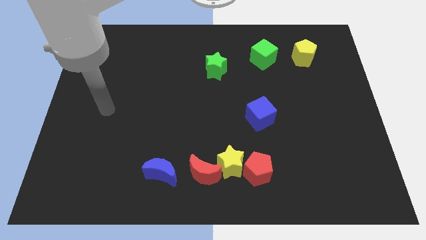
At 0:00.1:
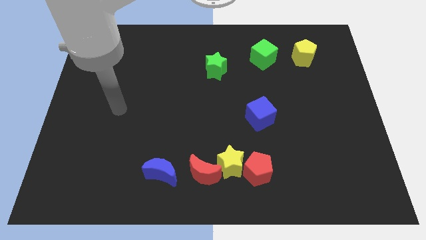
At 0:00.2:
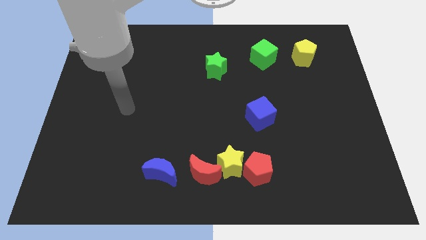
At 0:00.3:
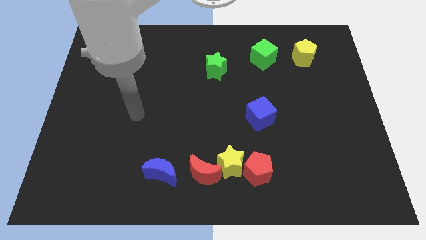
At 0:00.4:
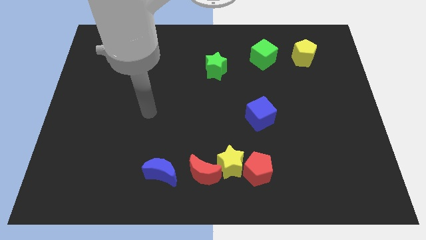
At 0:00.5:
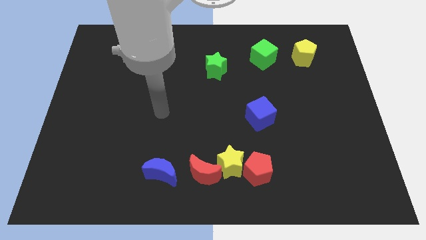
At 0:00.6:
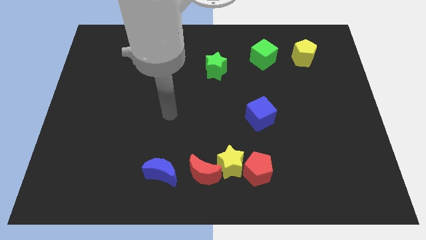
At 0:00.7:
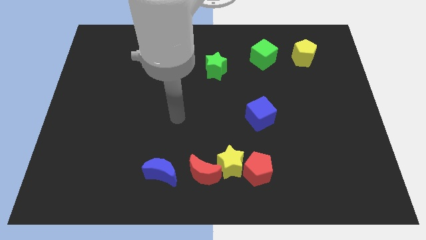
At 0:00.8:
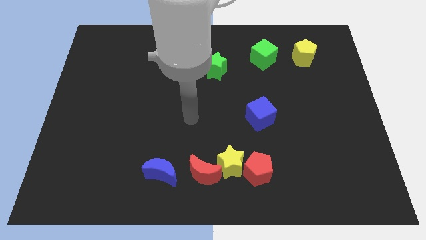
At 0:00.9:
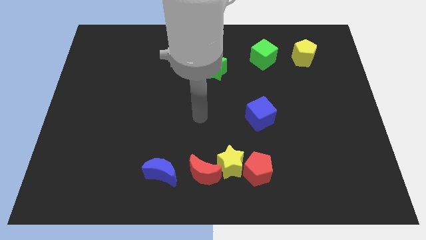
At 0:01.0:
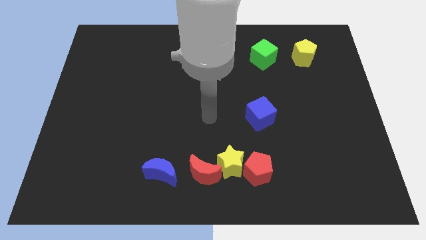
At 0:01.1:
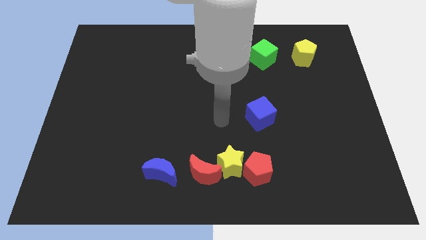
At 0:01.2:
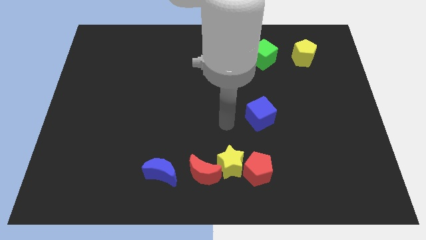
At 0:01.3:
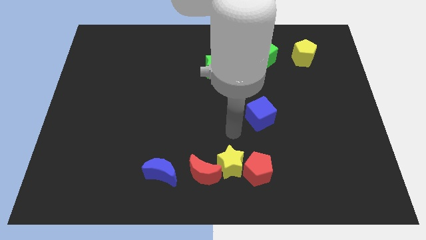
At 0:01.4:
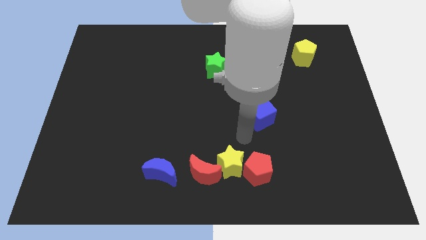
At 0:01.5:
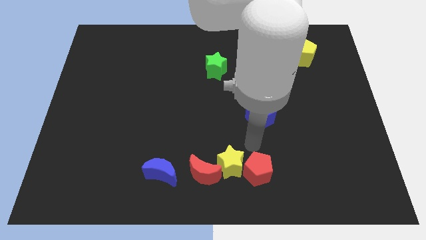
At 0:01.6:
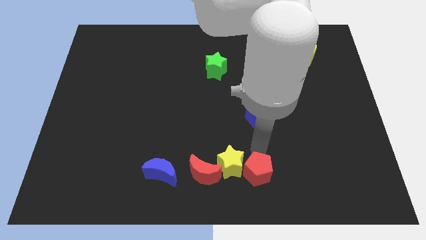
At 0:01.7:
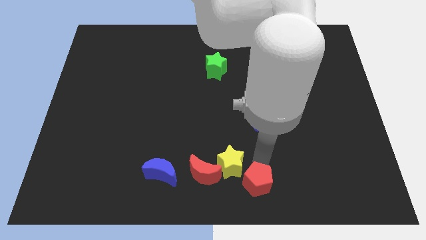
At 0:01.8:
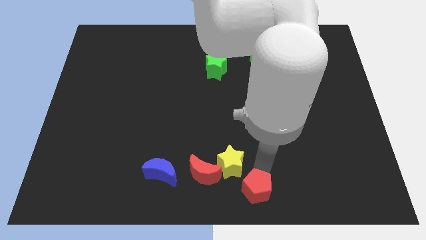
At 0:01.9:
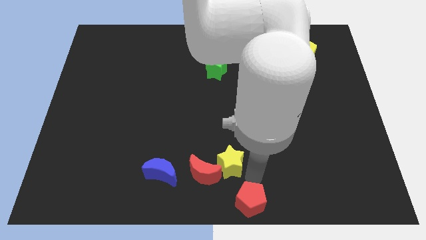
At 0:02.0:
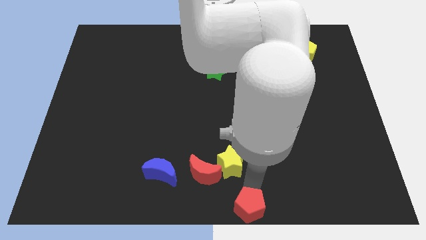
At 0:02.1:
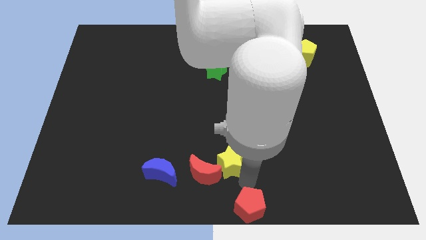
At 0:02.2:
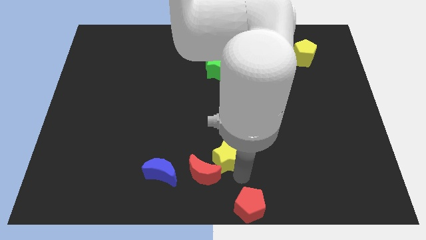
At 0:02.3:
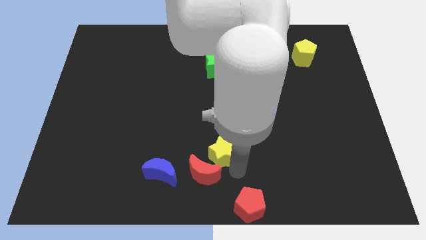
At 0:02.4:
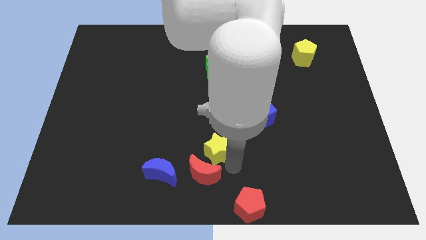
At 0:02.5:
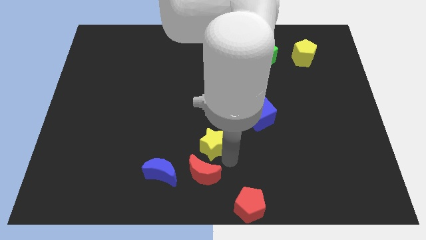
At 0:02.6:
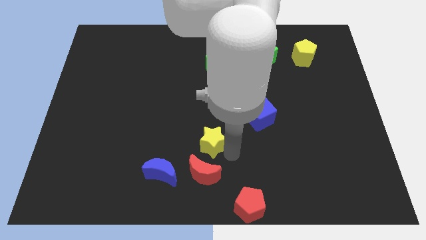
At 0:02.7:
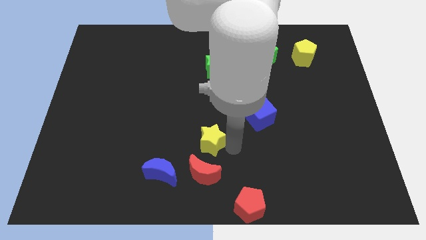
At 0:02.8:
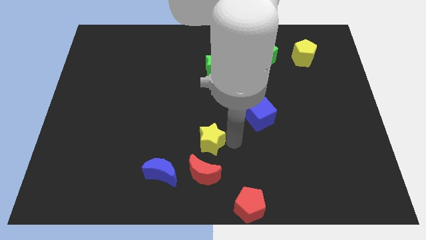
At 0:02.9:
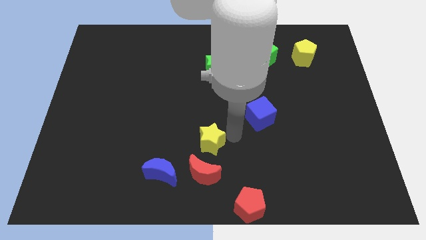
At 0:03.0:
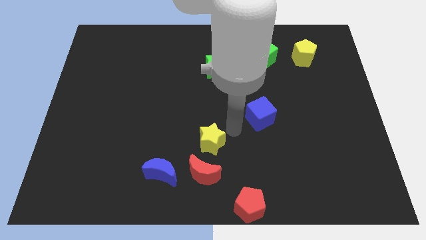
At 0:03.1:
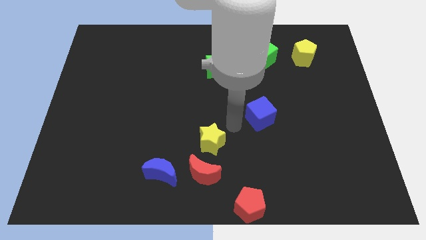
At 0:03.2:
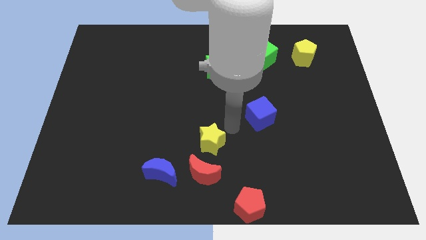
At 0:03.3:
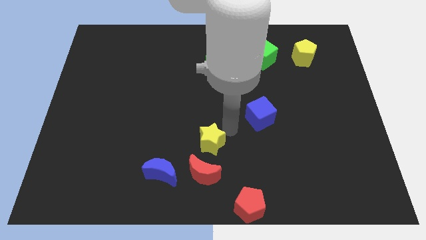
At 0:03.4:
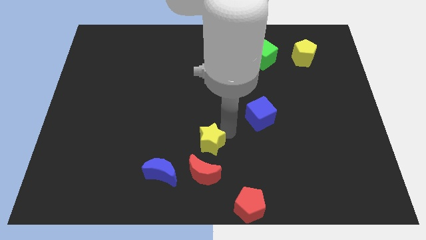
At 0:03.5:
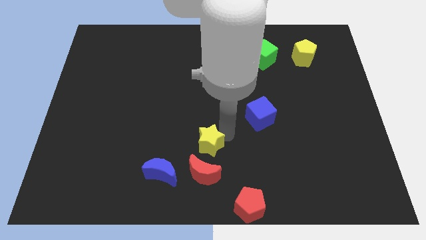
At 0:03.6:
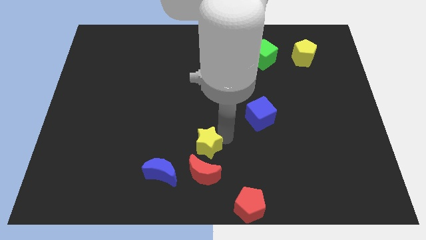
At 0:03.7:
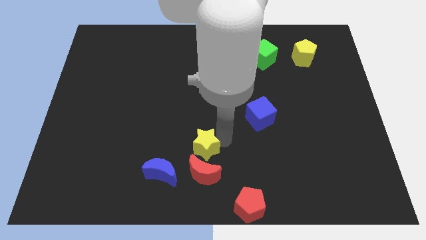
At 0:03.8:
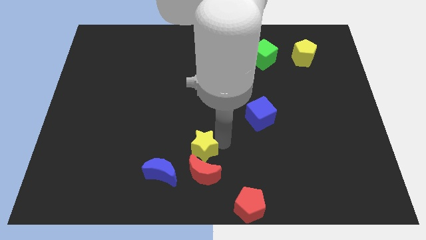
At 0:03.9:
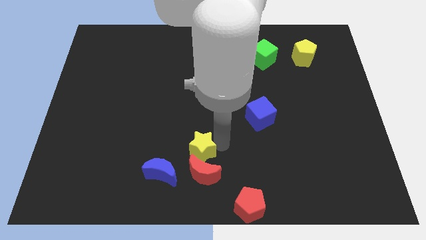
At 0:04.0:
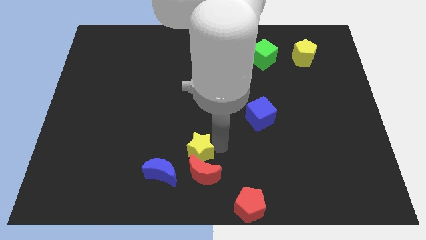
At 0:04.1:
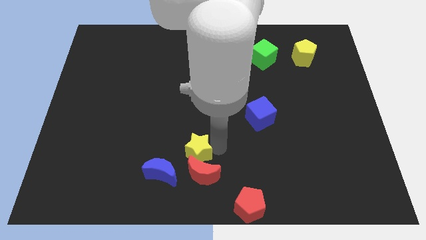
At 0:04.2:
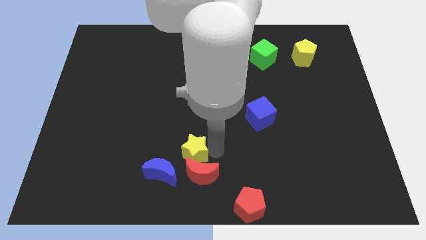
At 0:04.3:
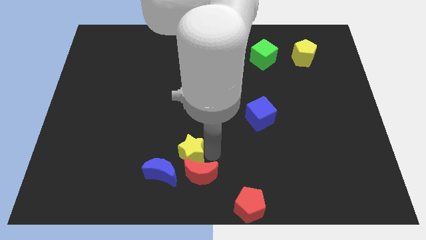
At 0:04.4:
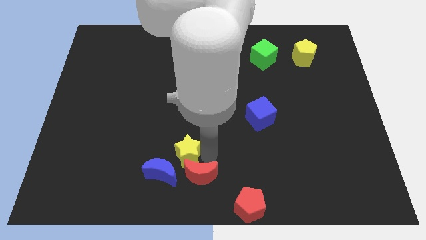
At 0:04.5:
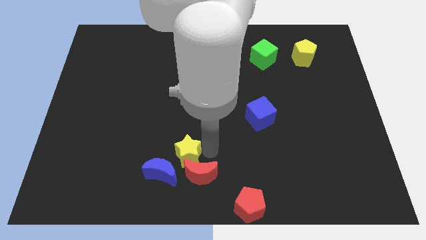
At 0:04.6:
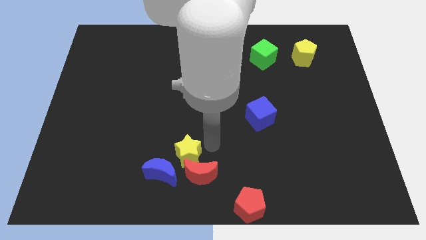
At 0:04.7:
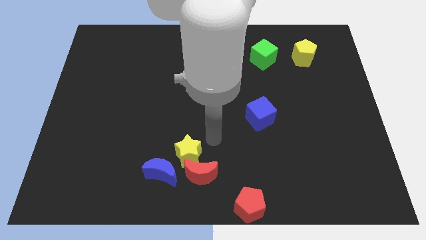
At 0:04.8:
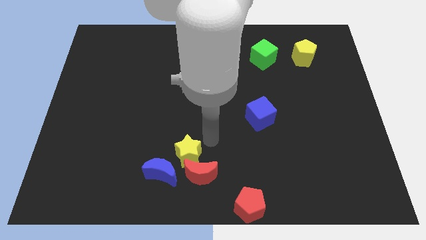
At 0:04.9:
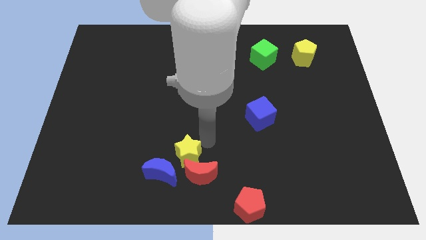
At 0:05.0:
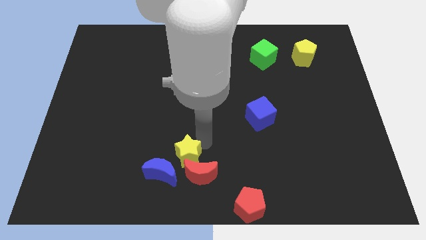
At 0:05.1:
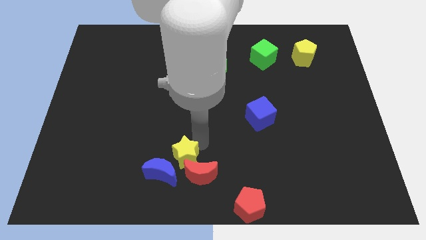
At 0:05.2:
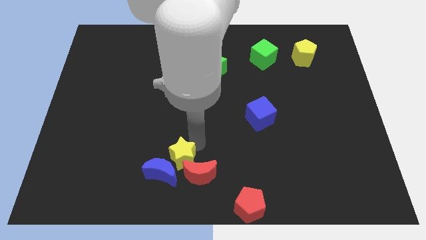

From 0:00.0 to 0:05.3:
put the yellow star to the blue moon

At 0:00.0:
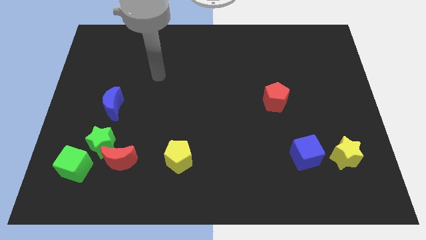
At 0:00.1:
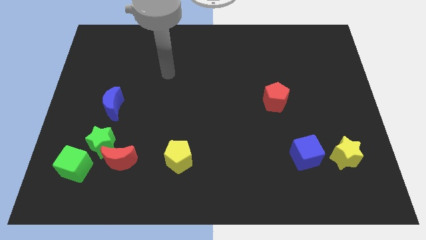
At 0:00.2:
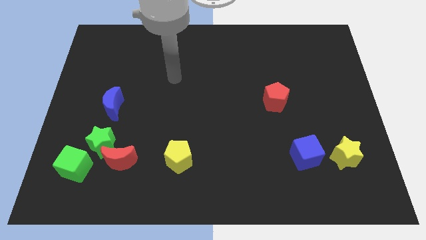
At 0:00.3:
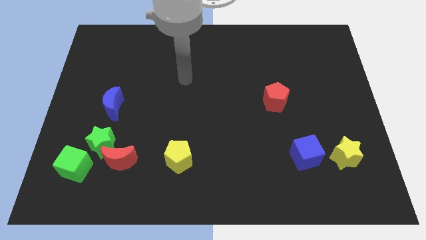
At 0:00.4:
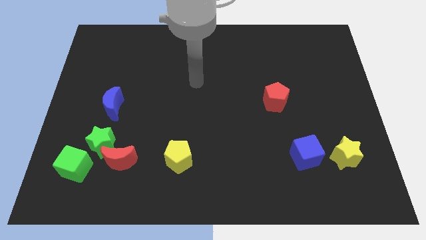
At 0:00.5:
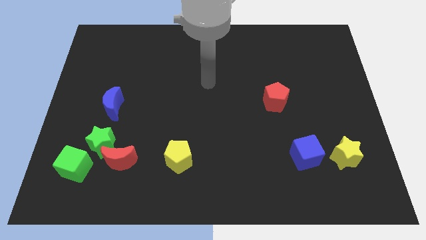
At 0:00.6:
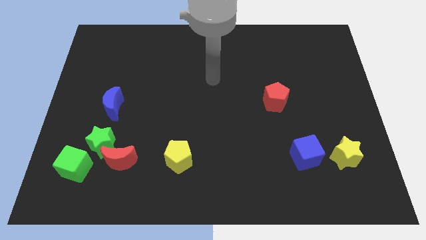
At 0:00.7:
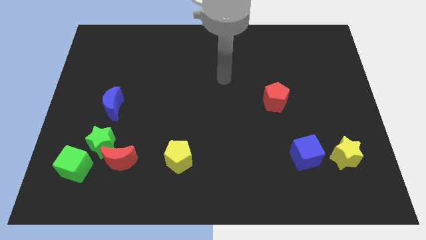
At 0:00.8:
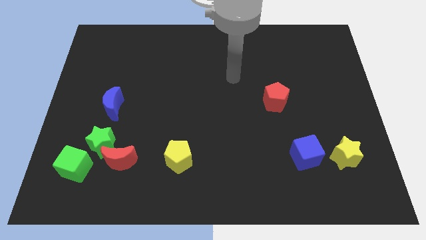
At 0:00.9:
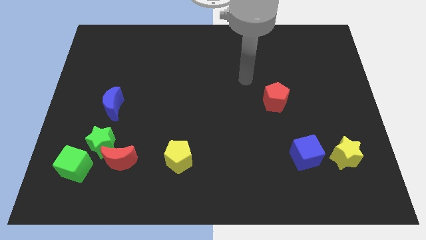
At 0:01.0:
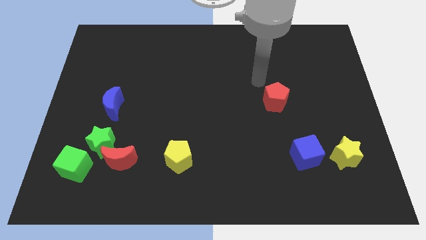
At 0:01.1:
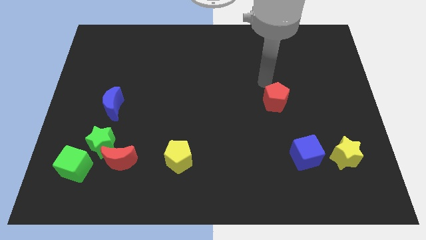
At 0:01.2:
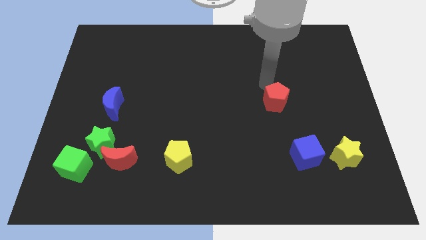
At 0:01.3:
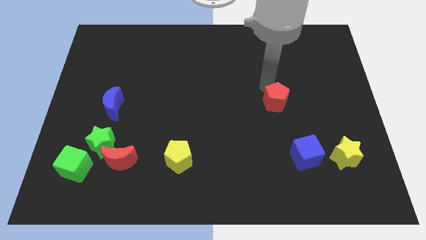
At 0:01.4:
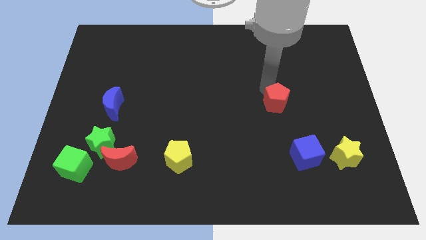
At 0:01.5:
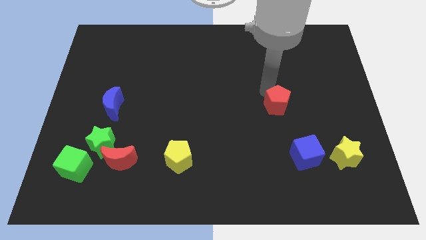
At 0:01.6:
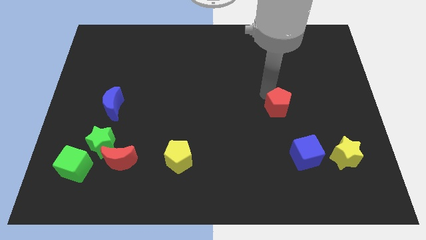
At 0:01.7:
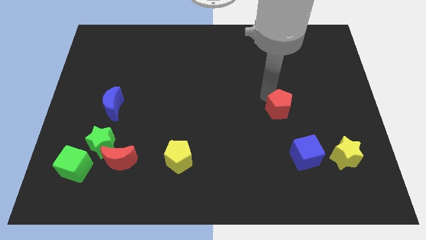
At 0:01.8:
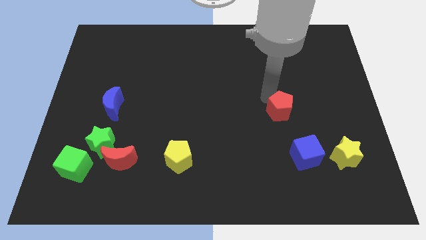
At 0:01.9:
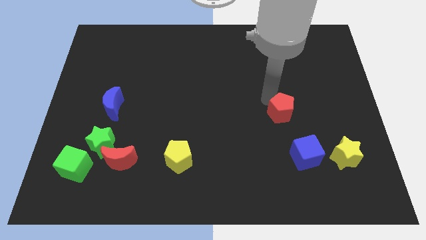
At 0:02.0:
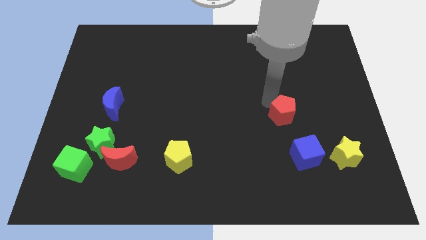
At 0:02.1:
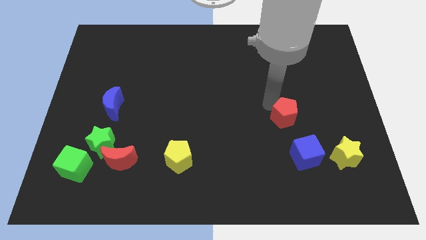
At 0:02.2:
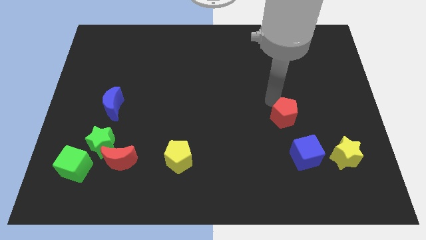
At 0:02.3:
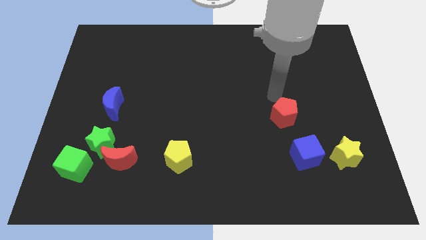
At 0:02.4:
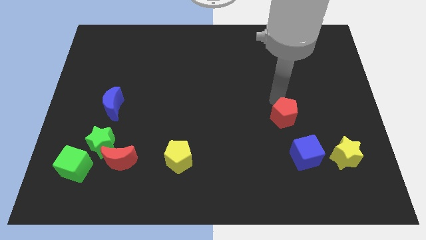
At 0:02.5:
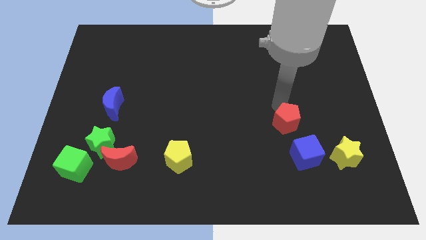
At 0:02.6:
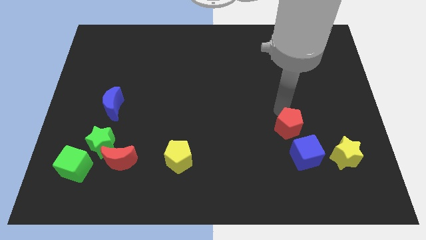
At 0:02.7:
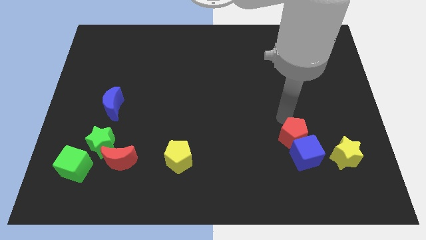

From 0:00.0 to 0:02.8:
move the red pentagon close to the blue cube
